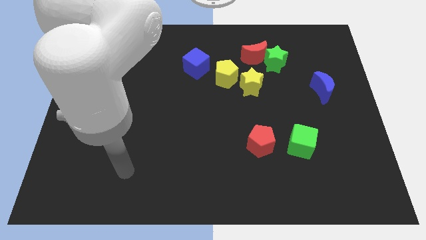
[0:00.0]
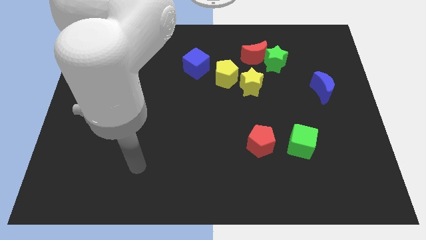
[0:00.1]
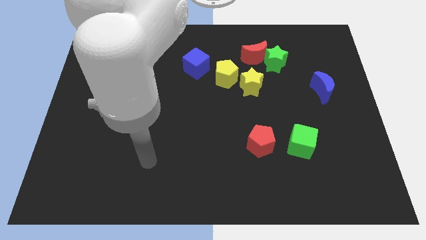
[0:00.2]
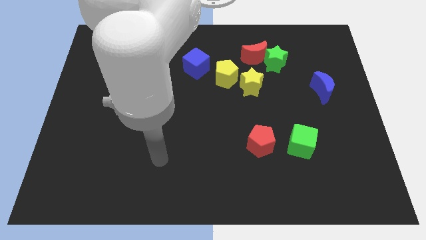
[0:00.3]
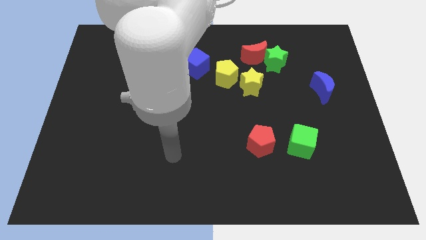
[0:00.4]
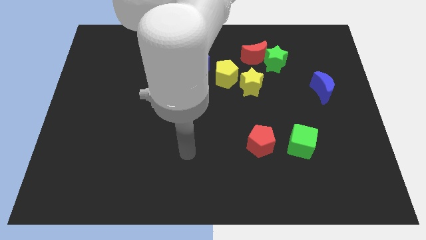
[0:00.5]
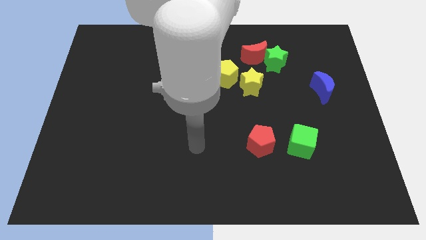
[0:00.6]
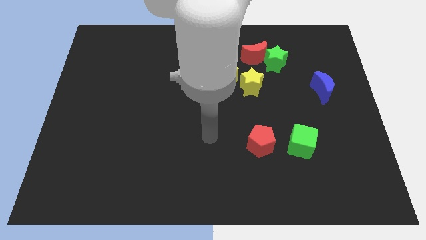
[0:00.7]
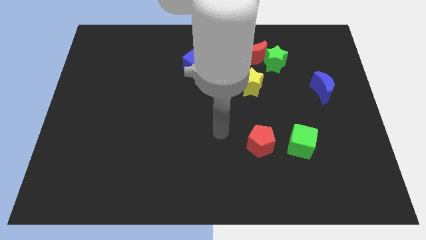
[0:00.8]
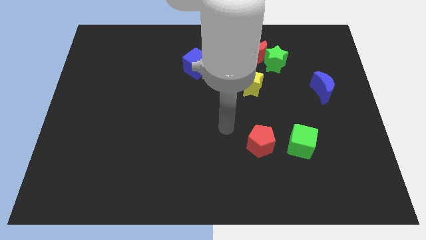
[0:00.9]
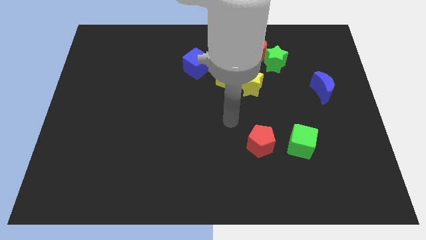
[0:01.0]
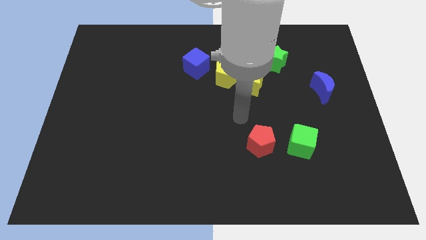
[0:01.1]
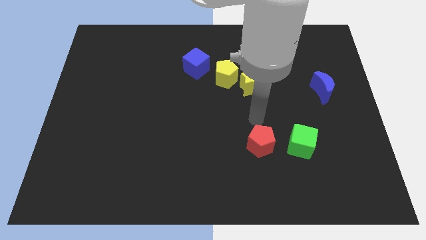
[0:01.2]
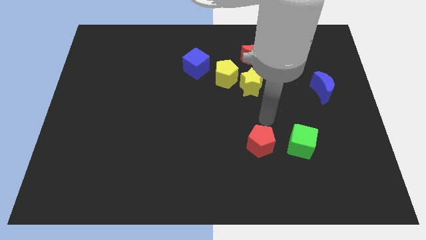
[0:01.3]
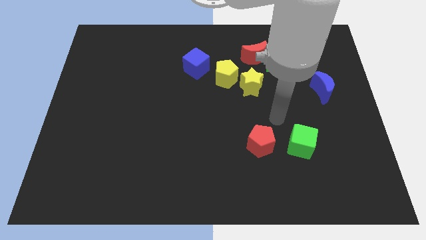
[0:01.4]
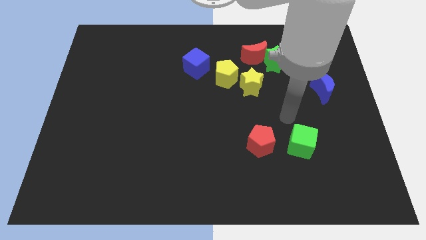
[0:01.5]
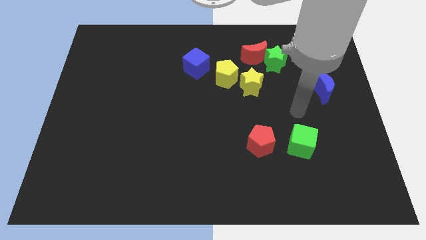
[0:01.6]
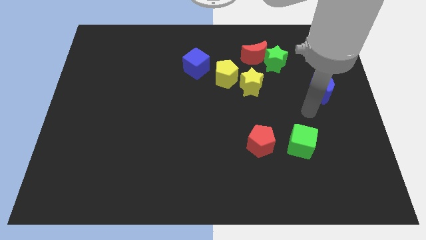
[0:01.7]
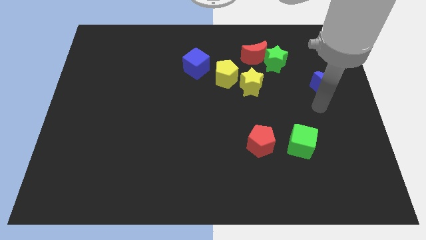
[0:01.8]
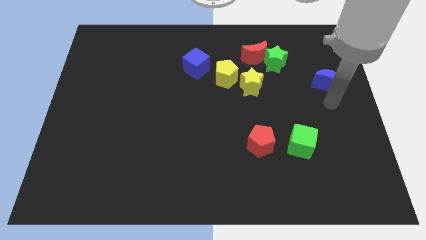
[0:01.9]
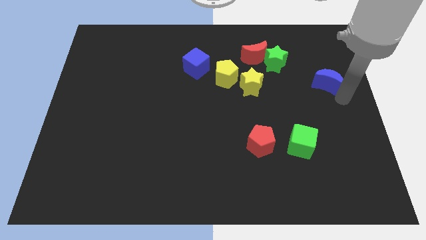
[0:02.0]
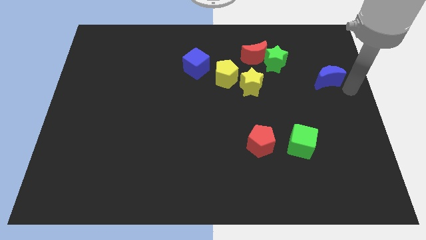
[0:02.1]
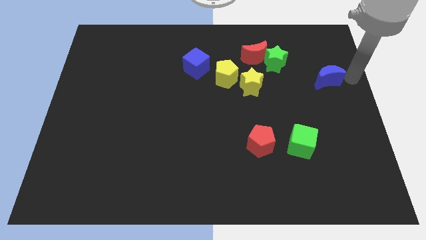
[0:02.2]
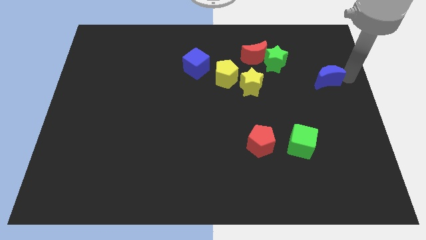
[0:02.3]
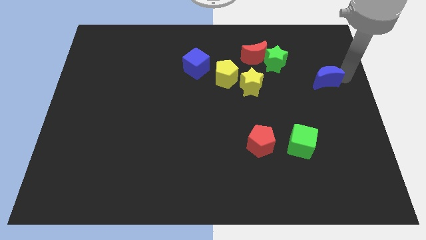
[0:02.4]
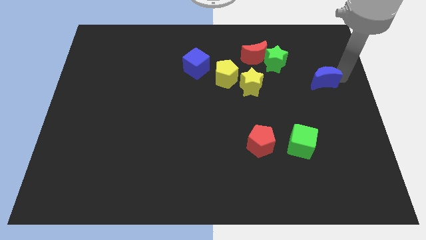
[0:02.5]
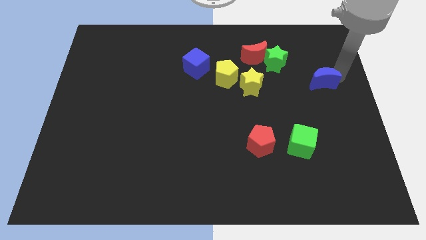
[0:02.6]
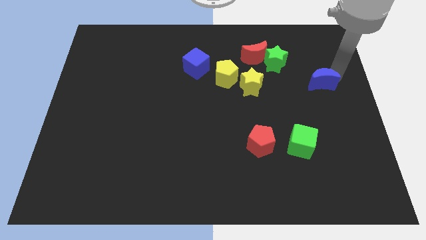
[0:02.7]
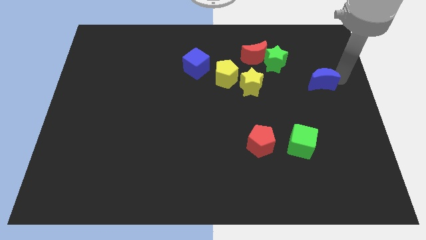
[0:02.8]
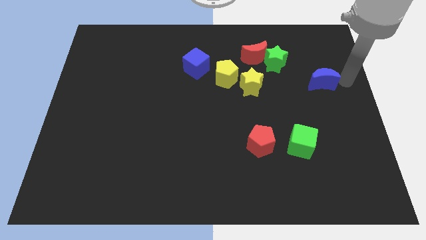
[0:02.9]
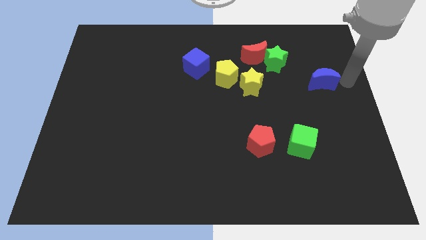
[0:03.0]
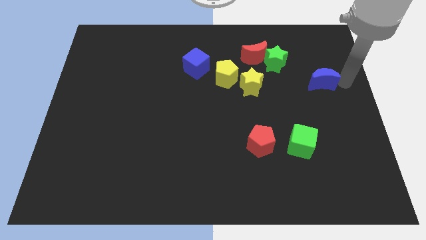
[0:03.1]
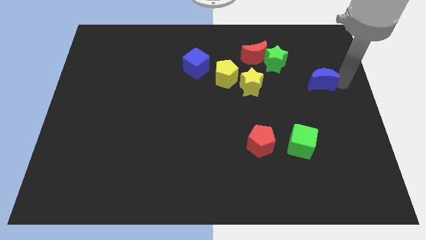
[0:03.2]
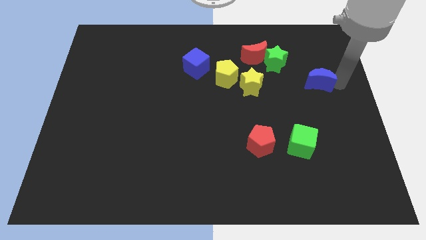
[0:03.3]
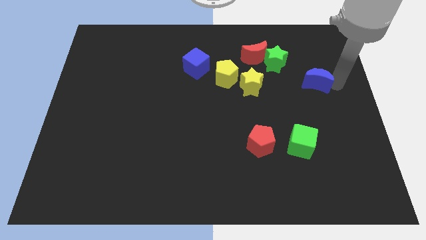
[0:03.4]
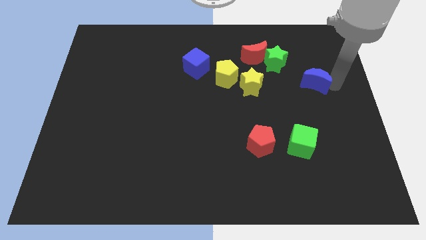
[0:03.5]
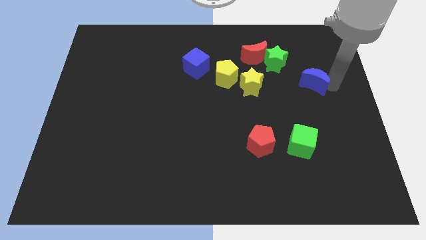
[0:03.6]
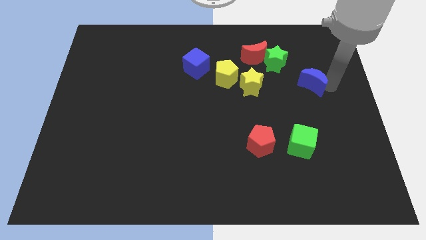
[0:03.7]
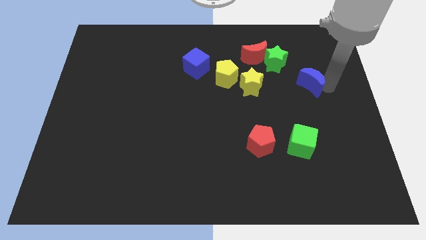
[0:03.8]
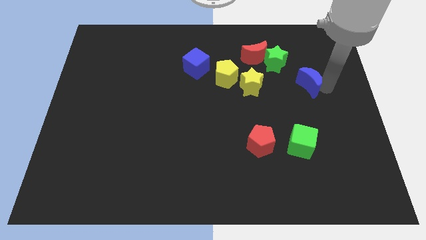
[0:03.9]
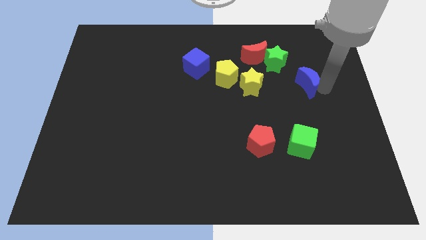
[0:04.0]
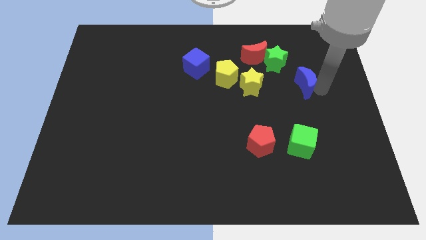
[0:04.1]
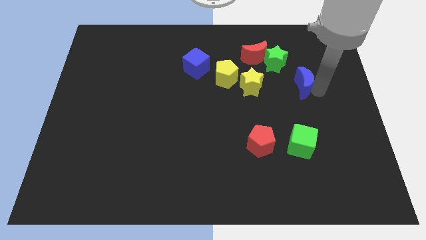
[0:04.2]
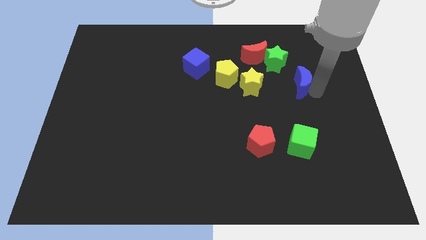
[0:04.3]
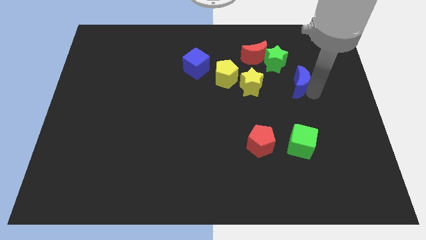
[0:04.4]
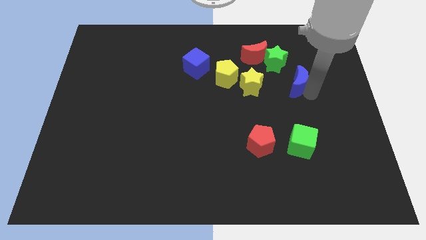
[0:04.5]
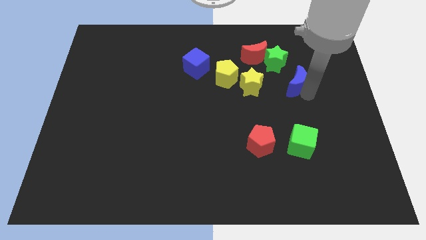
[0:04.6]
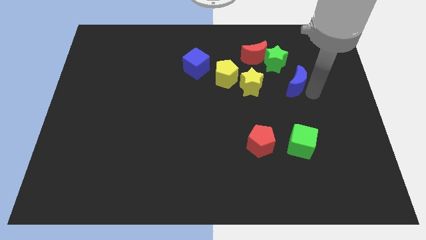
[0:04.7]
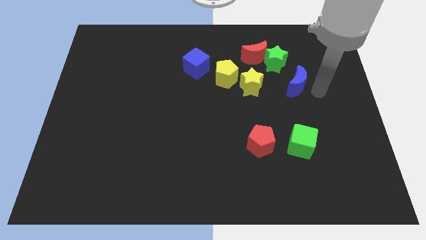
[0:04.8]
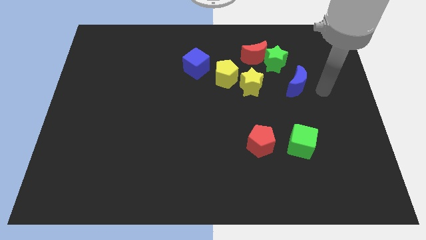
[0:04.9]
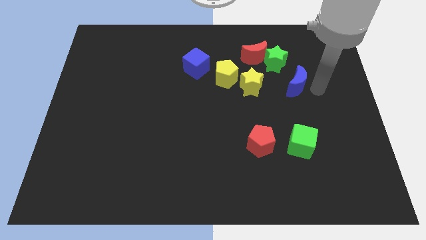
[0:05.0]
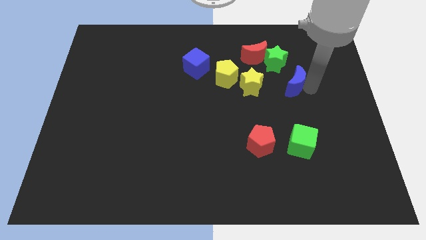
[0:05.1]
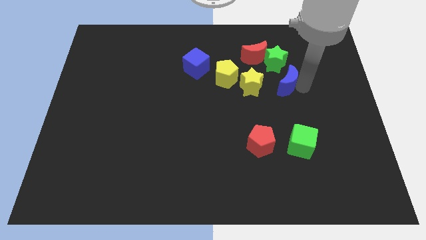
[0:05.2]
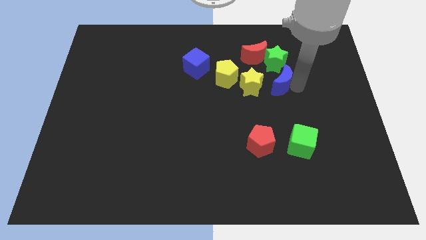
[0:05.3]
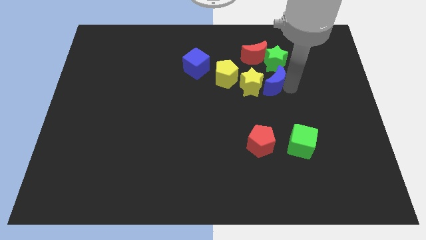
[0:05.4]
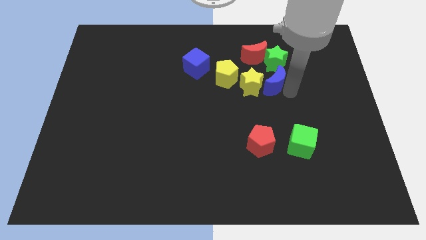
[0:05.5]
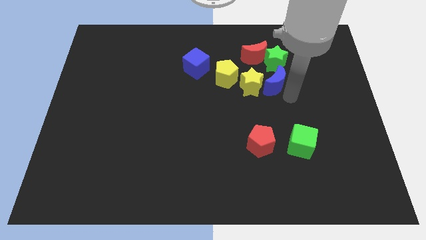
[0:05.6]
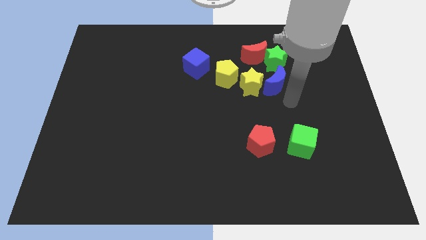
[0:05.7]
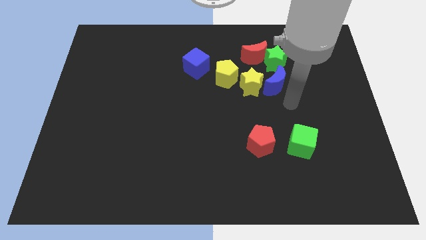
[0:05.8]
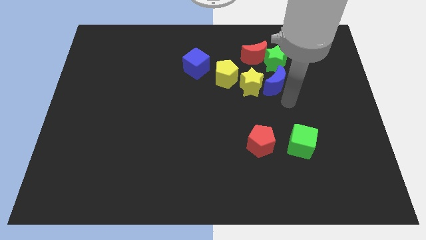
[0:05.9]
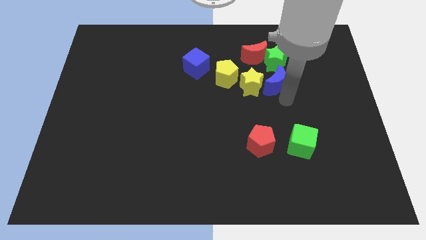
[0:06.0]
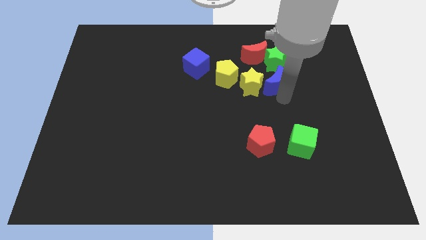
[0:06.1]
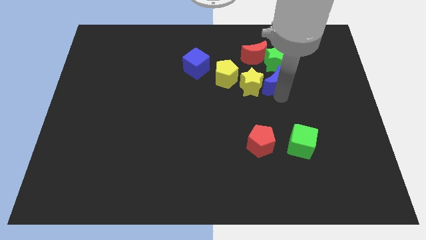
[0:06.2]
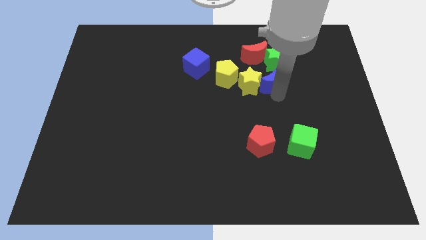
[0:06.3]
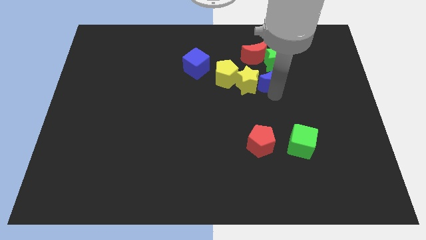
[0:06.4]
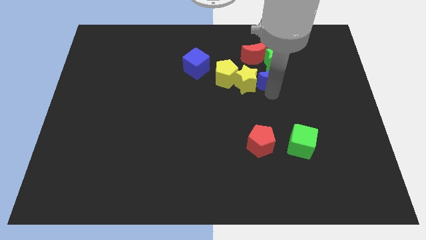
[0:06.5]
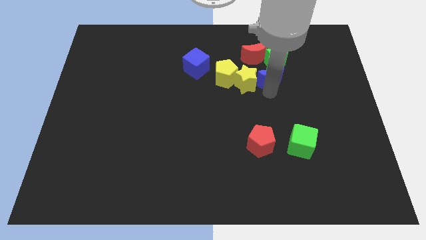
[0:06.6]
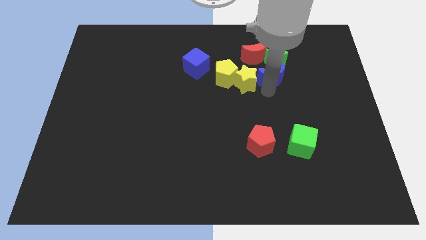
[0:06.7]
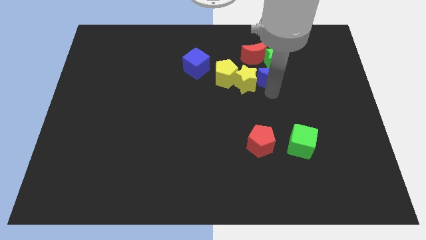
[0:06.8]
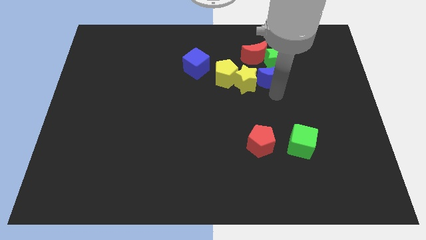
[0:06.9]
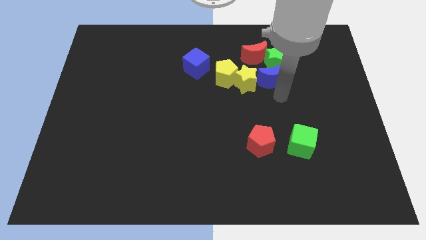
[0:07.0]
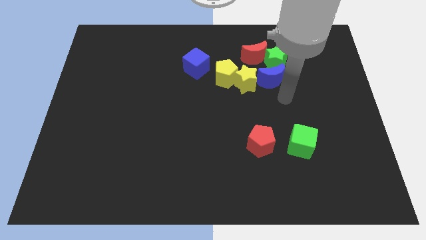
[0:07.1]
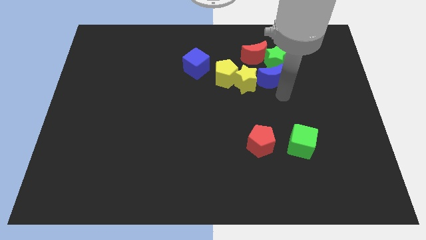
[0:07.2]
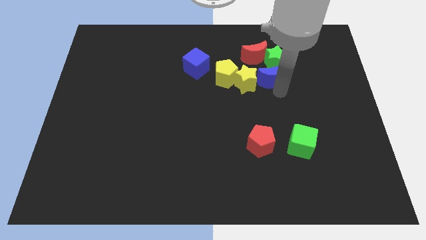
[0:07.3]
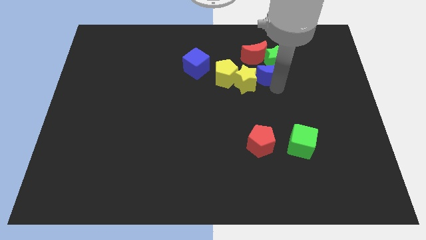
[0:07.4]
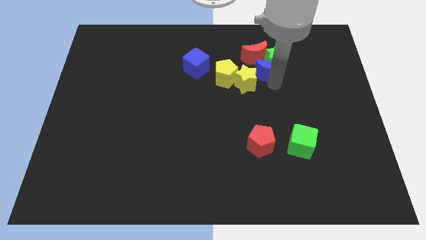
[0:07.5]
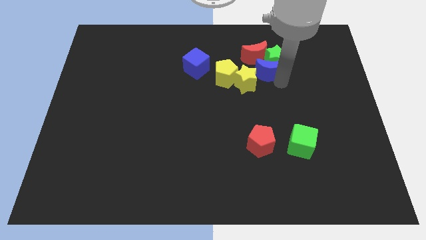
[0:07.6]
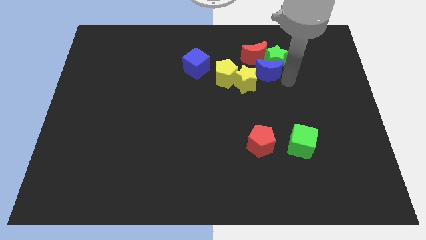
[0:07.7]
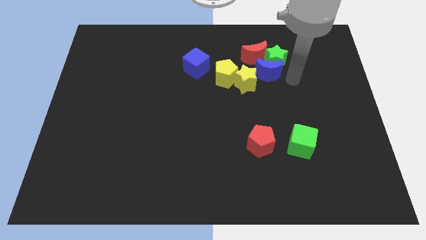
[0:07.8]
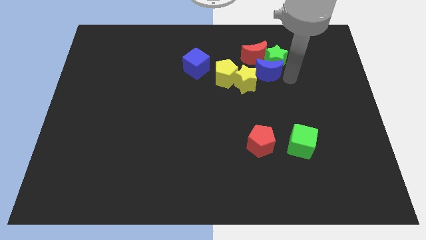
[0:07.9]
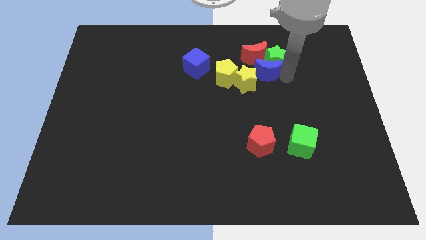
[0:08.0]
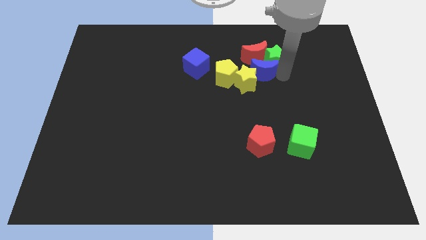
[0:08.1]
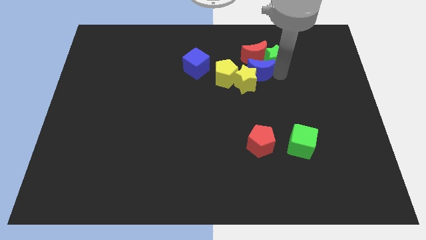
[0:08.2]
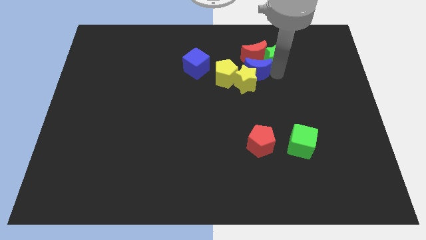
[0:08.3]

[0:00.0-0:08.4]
move the blue moon just right of the blue cube
